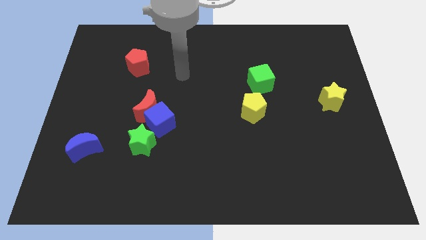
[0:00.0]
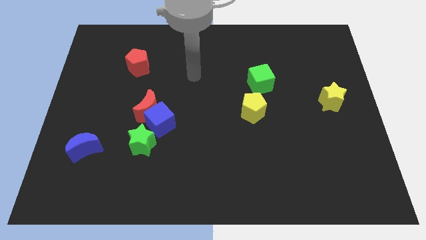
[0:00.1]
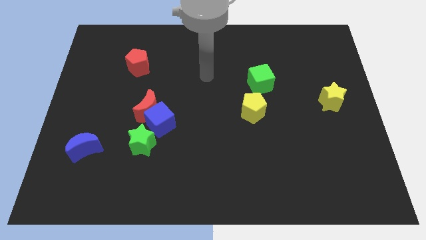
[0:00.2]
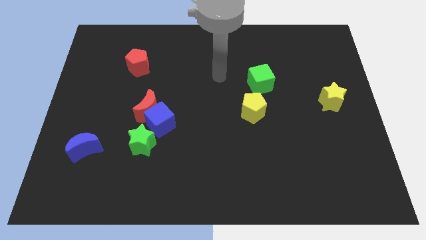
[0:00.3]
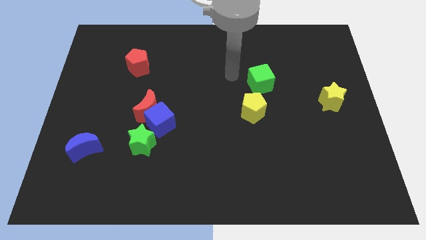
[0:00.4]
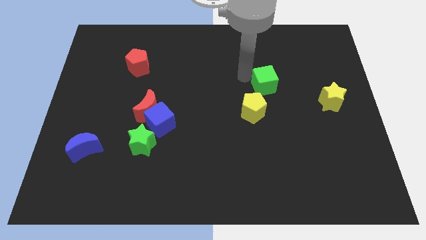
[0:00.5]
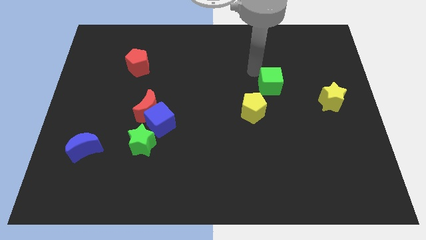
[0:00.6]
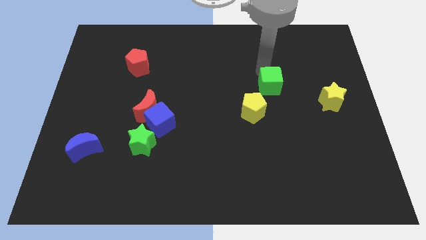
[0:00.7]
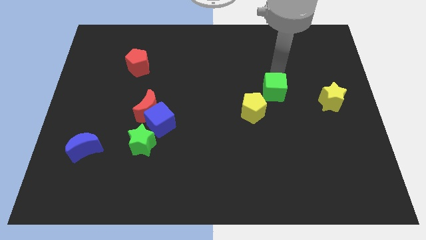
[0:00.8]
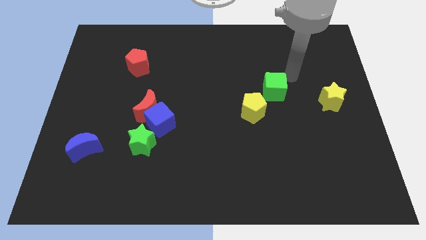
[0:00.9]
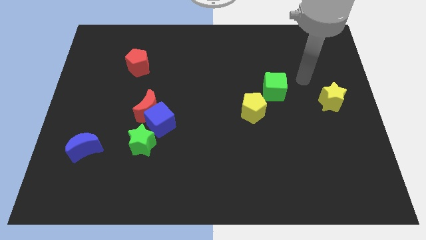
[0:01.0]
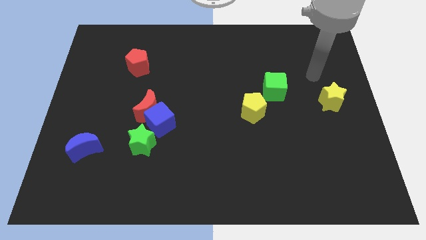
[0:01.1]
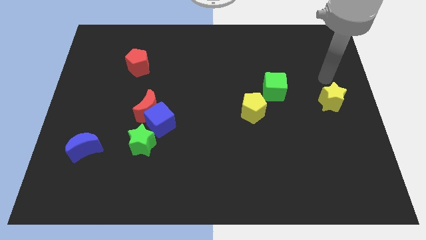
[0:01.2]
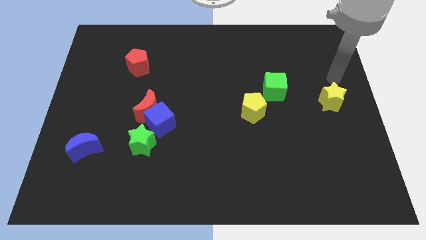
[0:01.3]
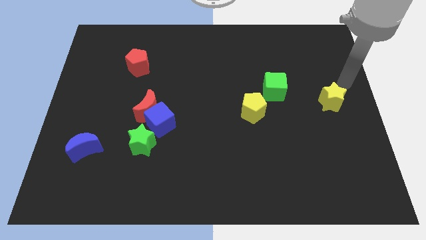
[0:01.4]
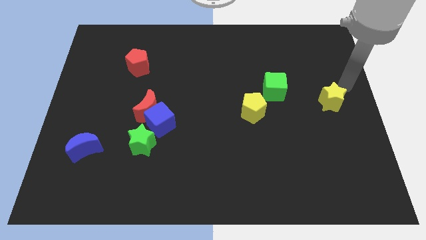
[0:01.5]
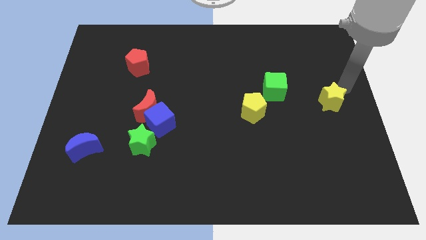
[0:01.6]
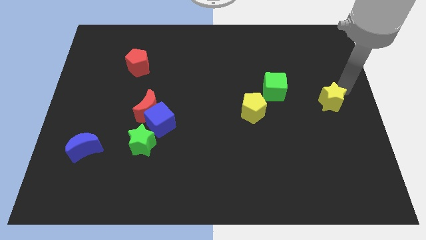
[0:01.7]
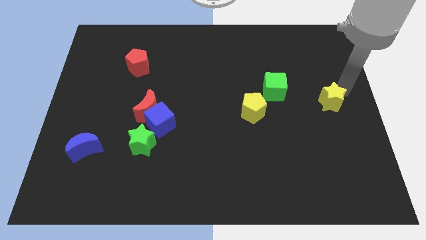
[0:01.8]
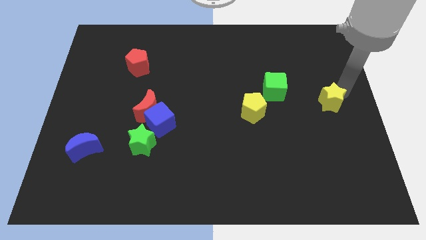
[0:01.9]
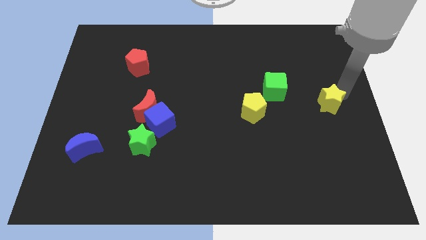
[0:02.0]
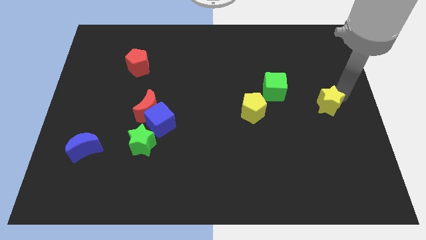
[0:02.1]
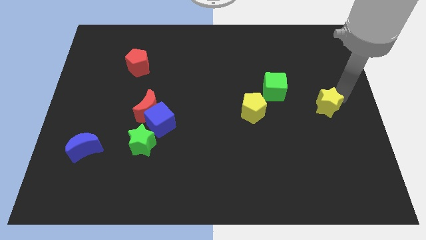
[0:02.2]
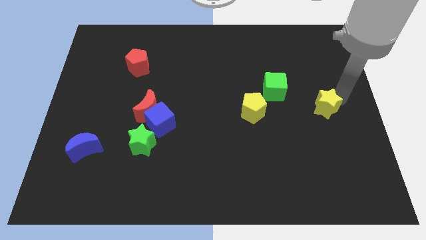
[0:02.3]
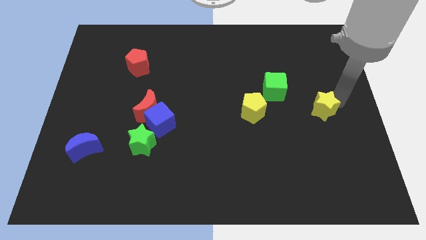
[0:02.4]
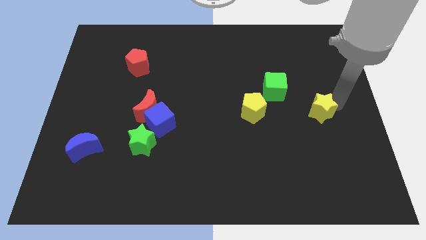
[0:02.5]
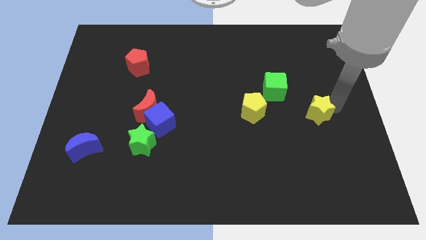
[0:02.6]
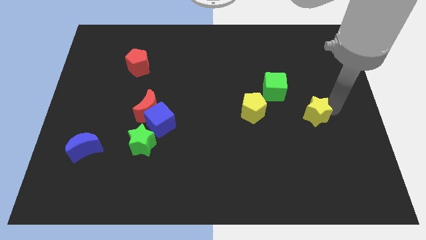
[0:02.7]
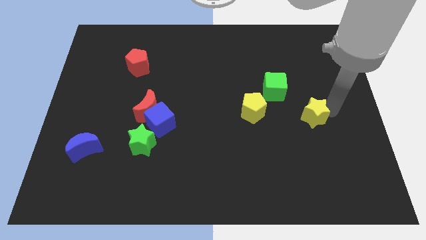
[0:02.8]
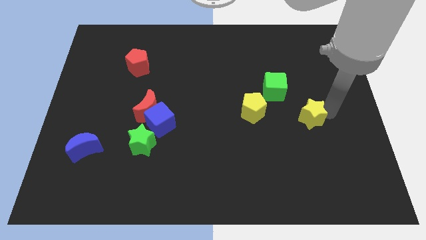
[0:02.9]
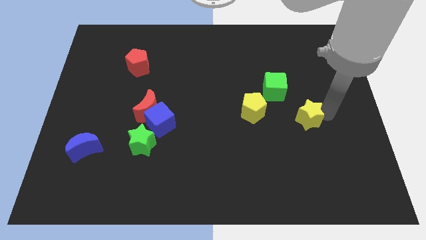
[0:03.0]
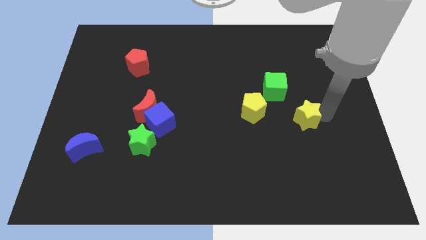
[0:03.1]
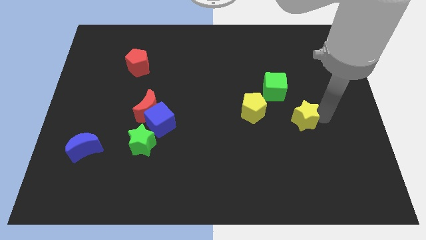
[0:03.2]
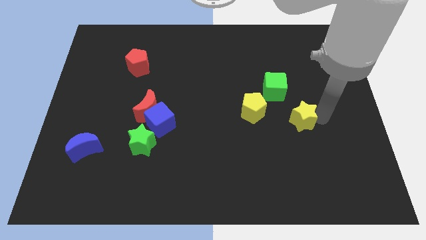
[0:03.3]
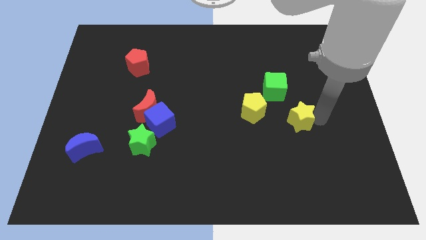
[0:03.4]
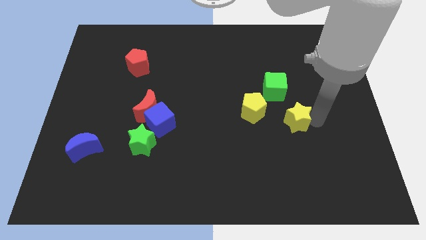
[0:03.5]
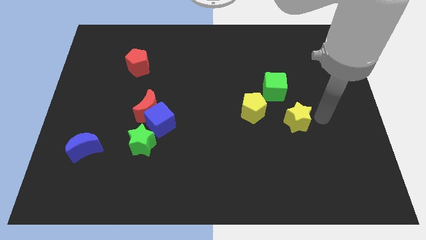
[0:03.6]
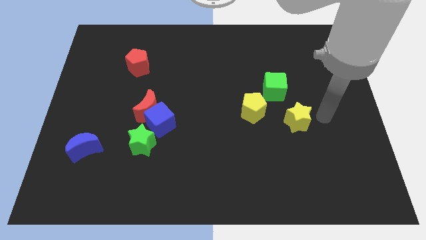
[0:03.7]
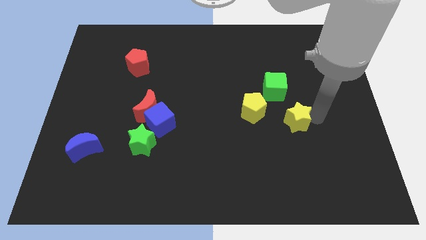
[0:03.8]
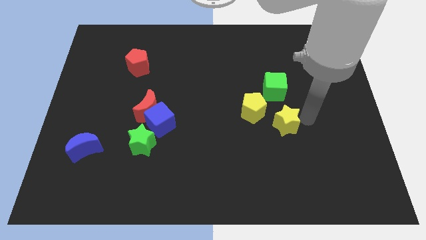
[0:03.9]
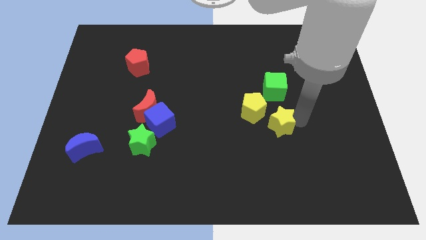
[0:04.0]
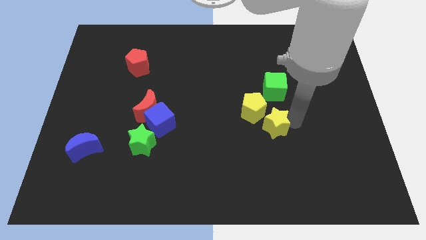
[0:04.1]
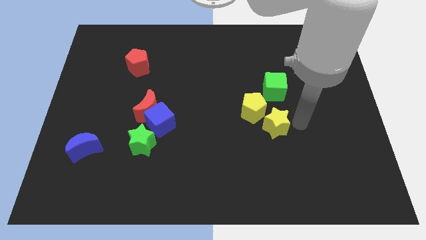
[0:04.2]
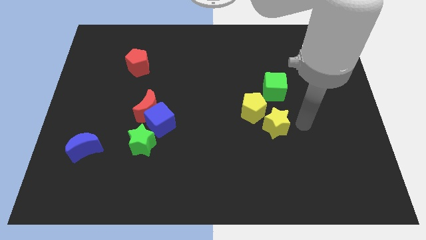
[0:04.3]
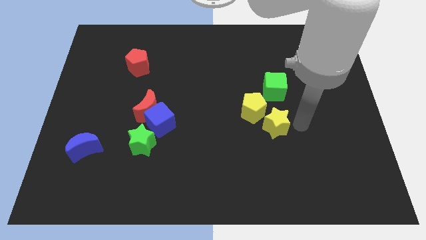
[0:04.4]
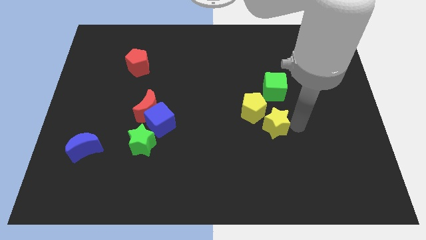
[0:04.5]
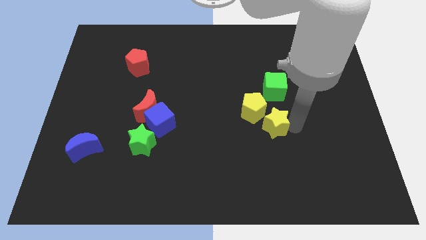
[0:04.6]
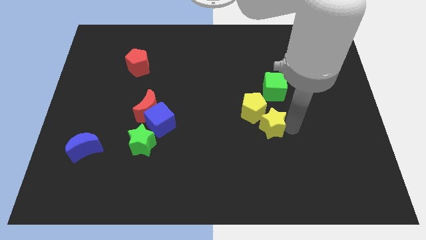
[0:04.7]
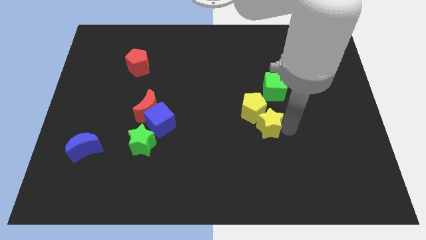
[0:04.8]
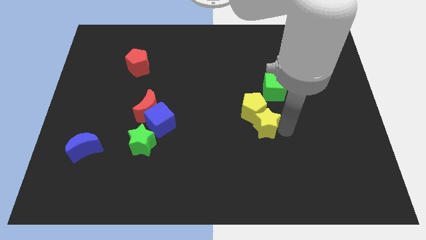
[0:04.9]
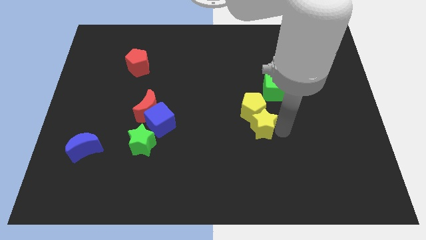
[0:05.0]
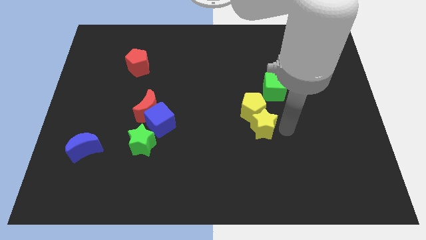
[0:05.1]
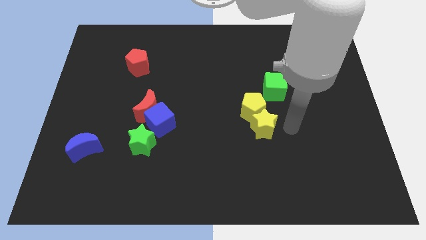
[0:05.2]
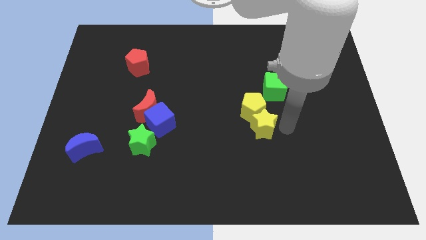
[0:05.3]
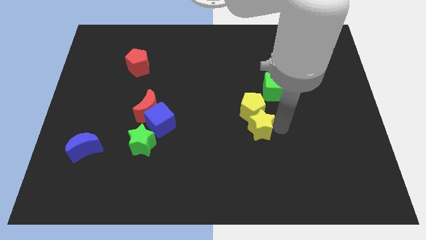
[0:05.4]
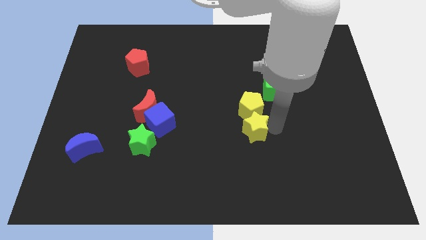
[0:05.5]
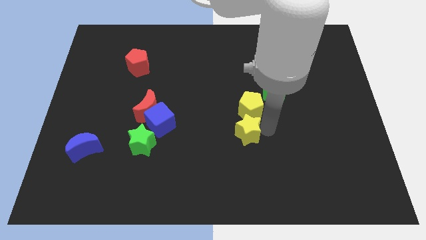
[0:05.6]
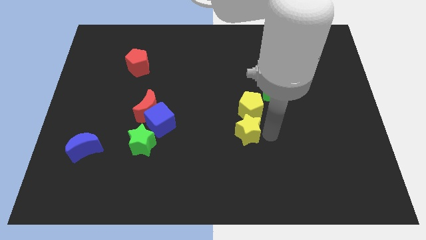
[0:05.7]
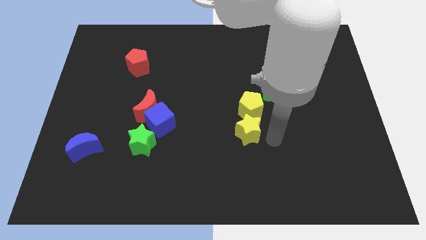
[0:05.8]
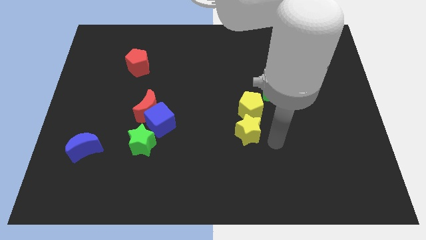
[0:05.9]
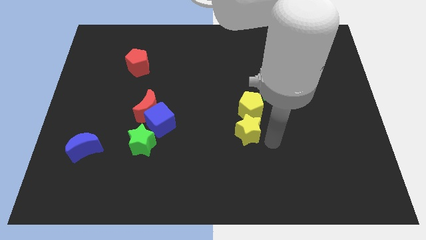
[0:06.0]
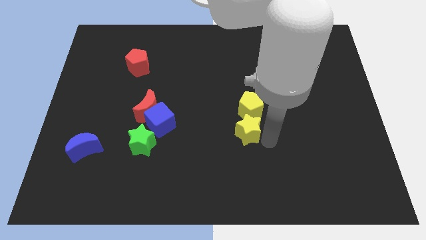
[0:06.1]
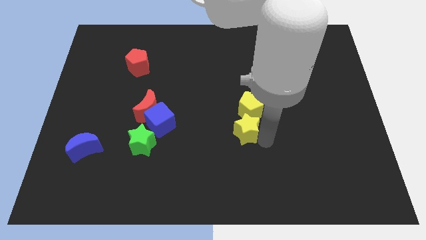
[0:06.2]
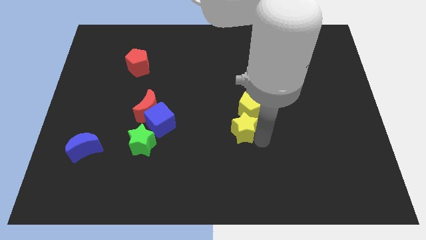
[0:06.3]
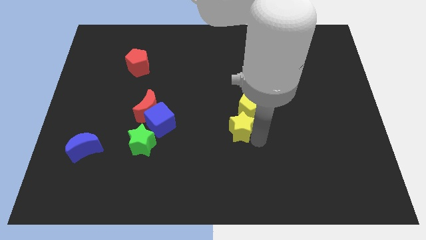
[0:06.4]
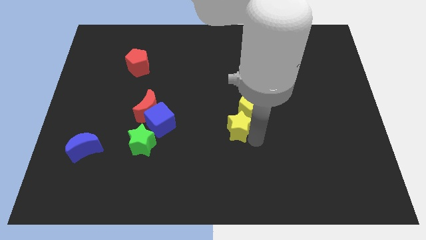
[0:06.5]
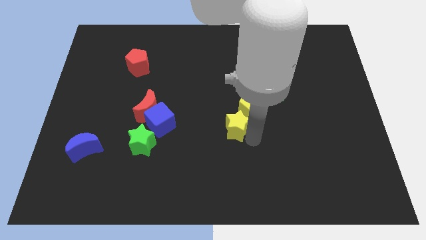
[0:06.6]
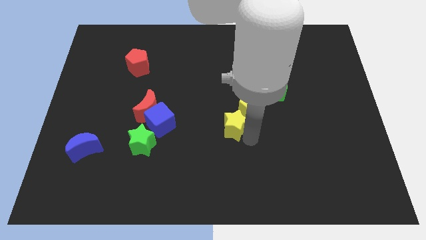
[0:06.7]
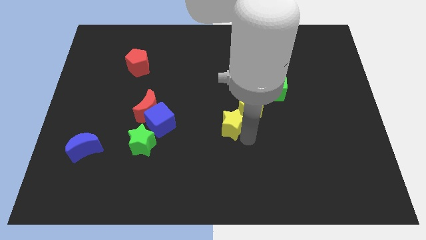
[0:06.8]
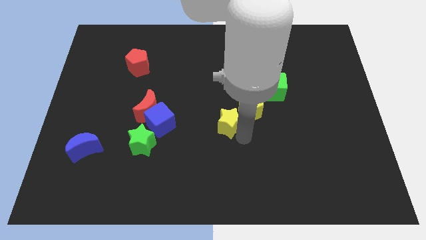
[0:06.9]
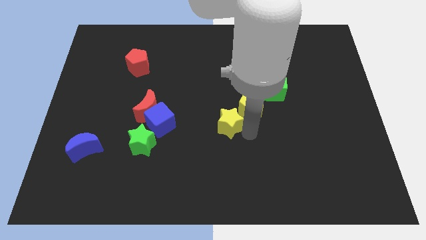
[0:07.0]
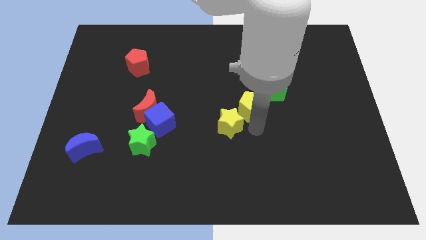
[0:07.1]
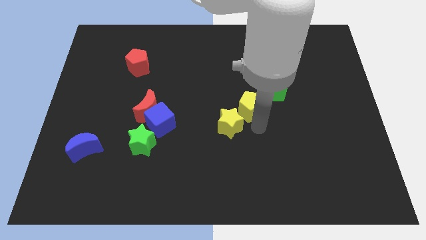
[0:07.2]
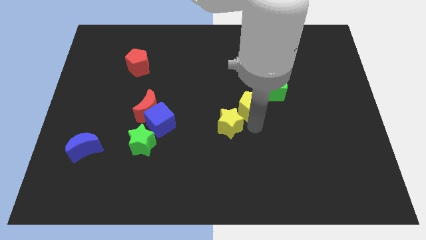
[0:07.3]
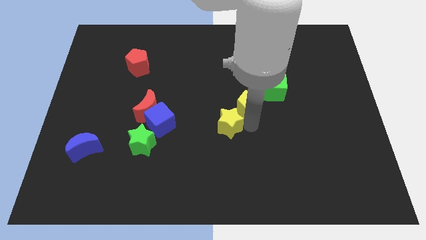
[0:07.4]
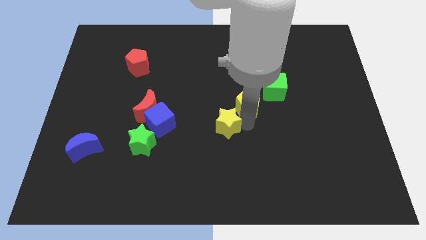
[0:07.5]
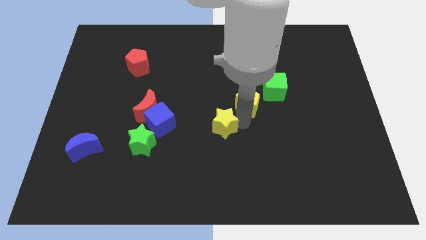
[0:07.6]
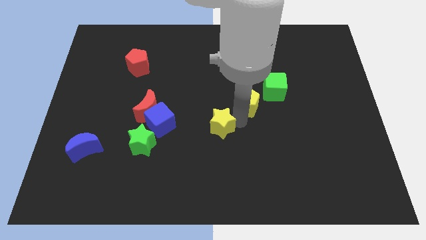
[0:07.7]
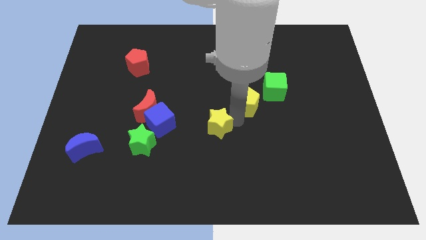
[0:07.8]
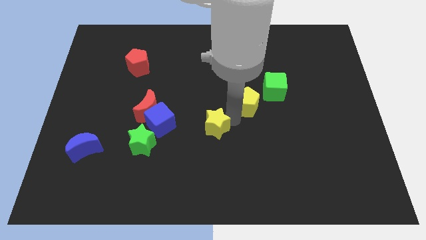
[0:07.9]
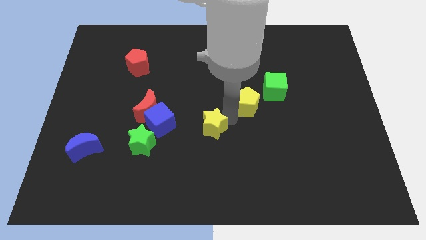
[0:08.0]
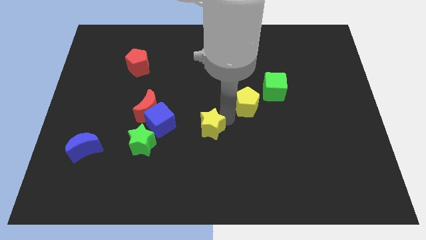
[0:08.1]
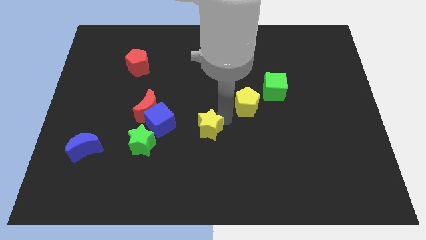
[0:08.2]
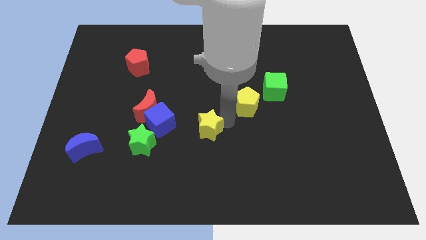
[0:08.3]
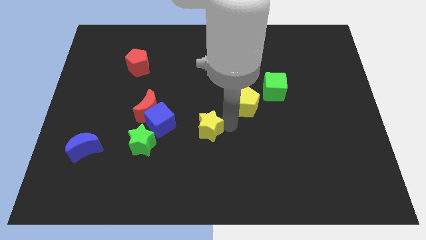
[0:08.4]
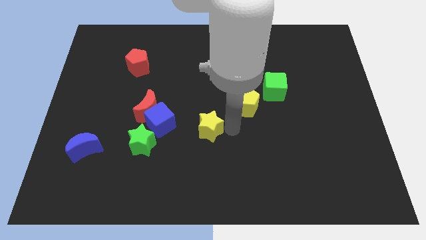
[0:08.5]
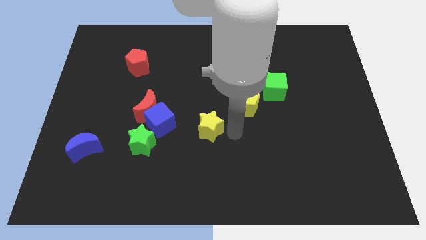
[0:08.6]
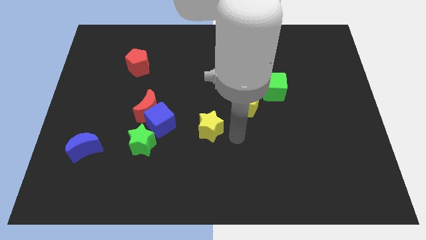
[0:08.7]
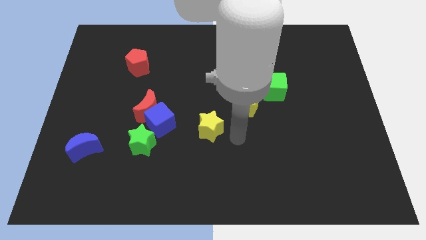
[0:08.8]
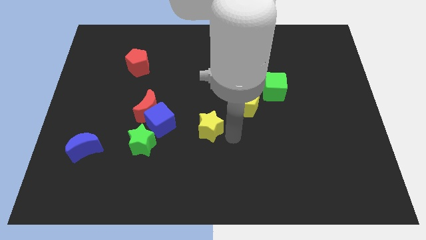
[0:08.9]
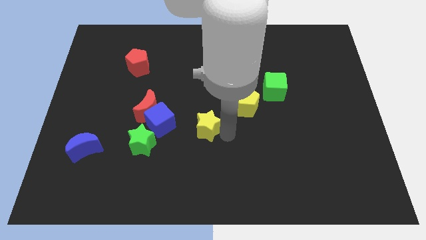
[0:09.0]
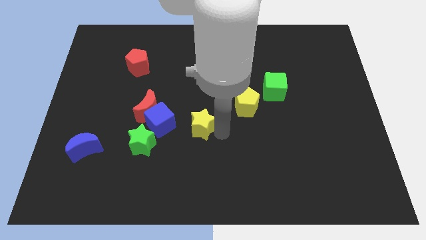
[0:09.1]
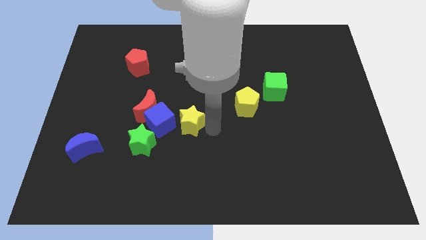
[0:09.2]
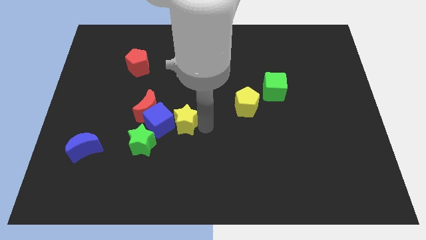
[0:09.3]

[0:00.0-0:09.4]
move the yellow star to the blue cube
